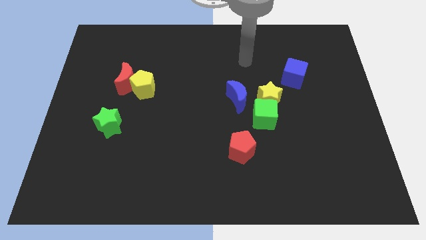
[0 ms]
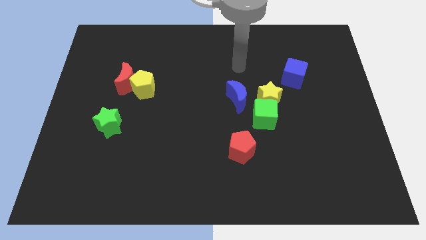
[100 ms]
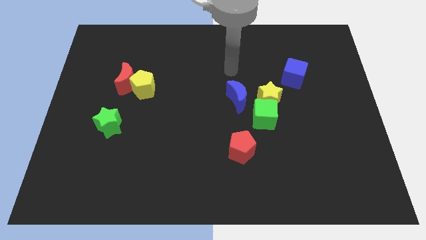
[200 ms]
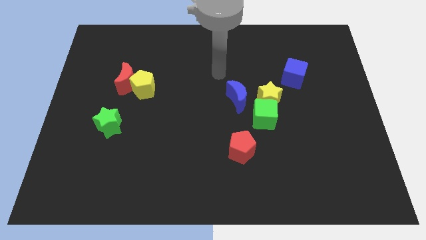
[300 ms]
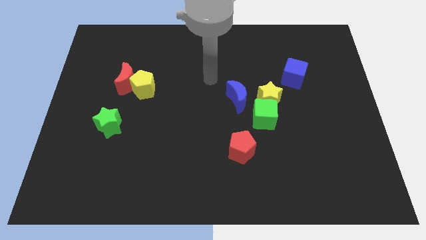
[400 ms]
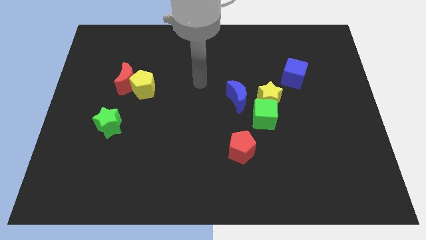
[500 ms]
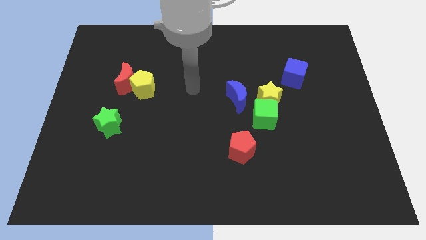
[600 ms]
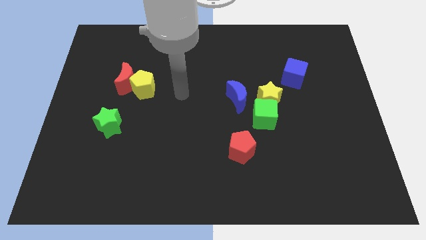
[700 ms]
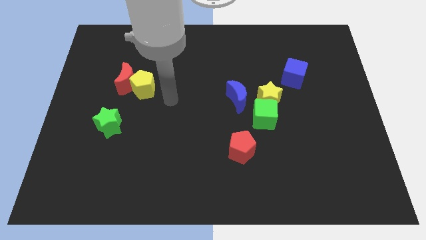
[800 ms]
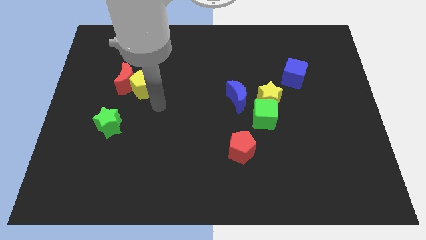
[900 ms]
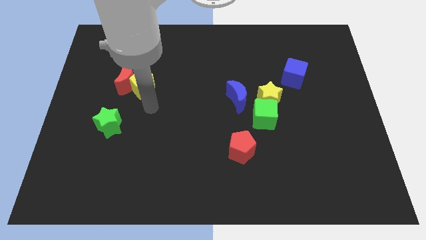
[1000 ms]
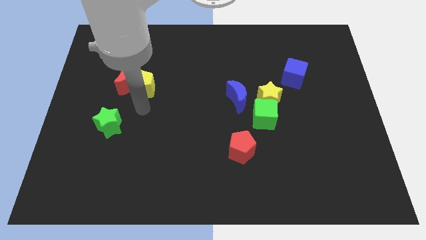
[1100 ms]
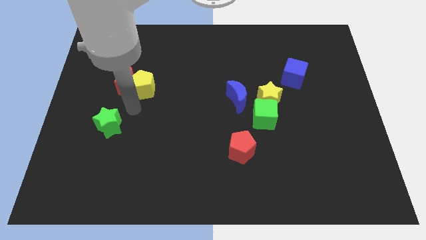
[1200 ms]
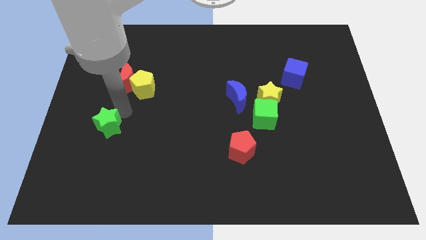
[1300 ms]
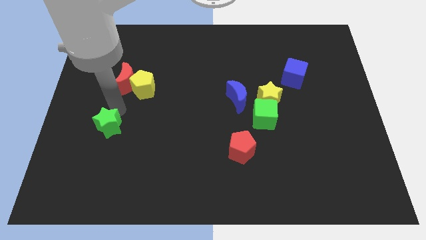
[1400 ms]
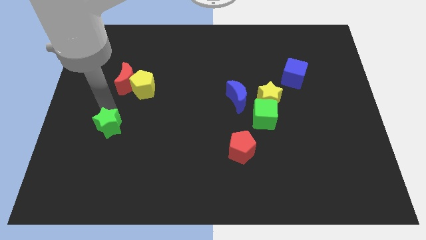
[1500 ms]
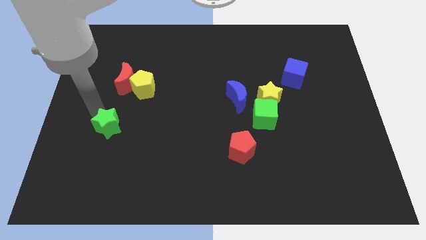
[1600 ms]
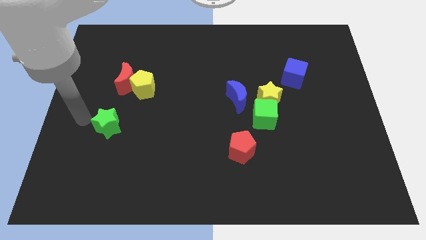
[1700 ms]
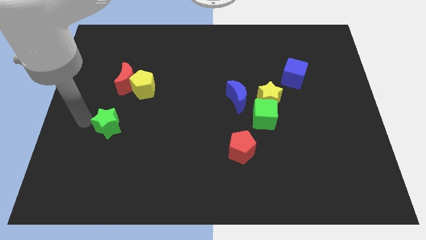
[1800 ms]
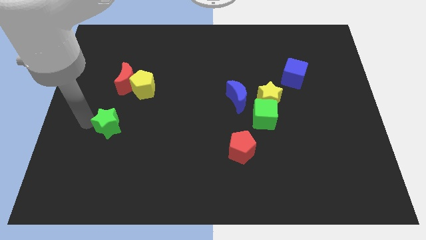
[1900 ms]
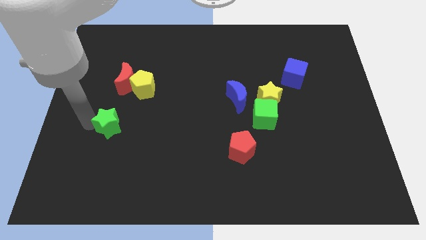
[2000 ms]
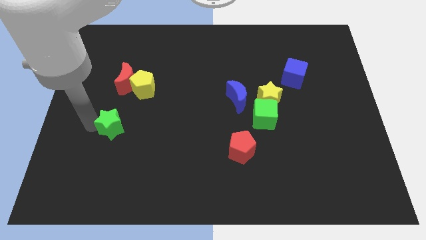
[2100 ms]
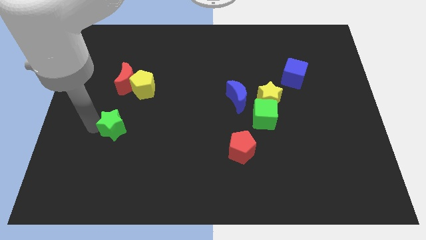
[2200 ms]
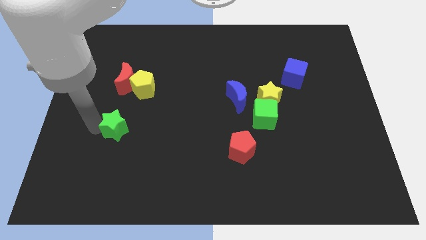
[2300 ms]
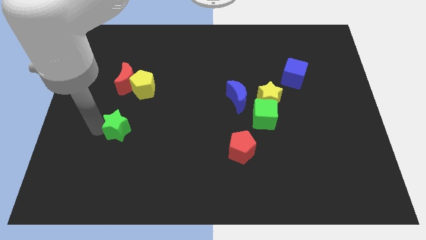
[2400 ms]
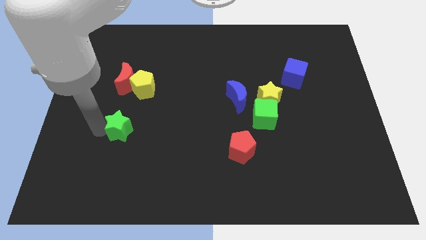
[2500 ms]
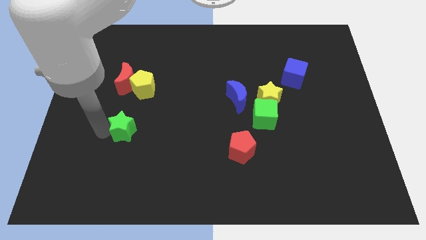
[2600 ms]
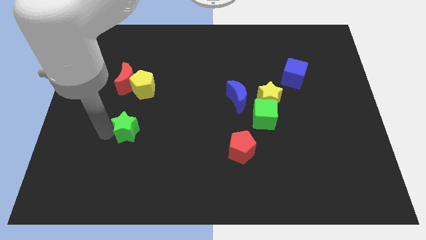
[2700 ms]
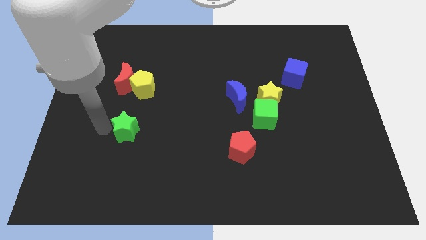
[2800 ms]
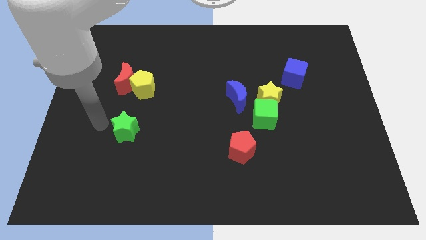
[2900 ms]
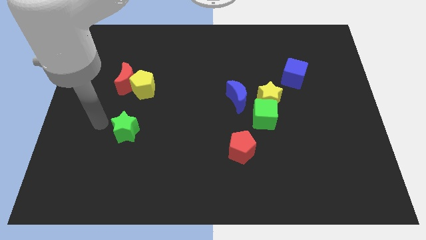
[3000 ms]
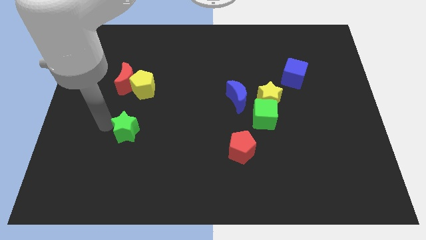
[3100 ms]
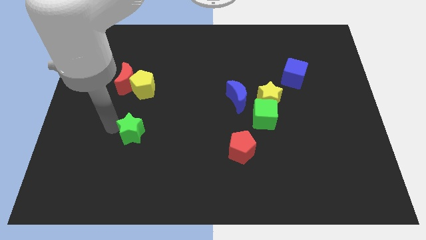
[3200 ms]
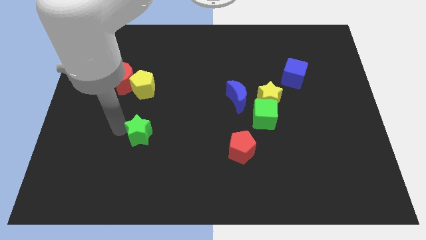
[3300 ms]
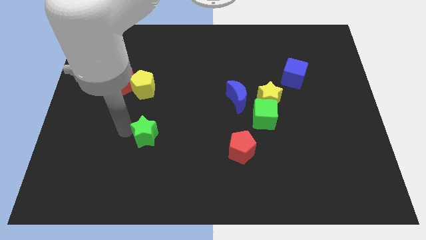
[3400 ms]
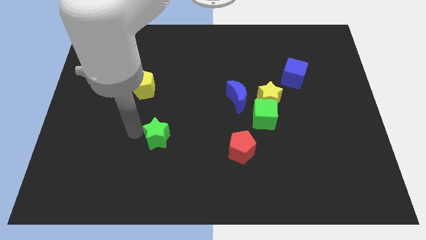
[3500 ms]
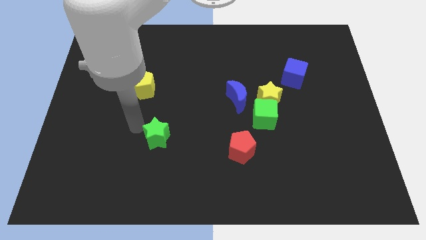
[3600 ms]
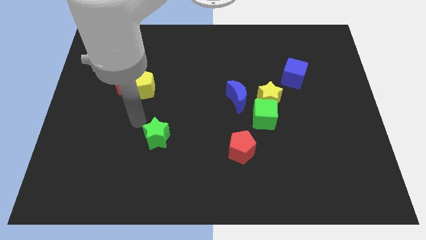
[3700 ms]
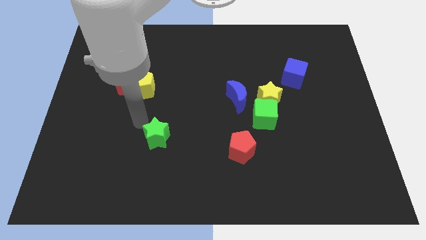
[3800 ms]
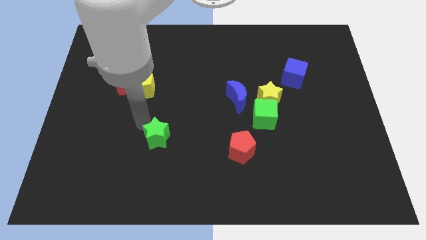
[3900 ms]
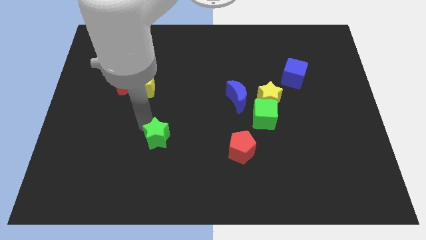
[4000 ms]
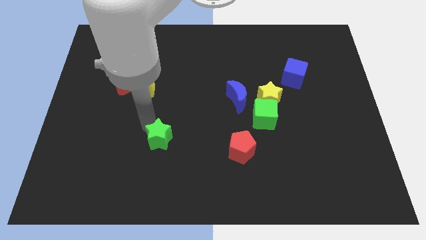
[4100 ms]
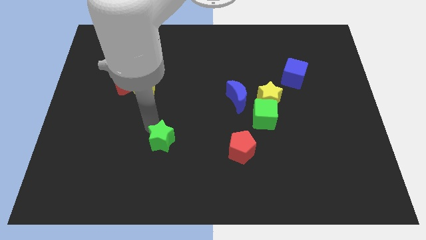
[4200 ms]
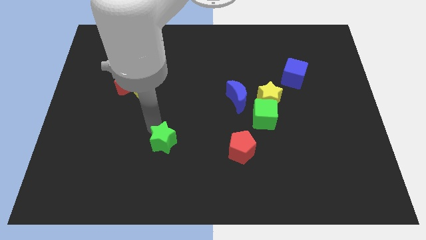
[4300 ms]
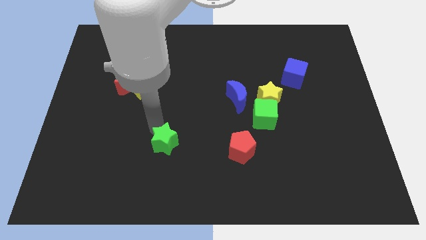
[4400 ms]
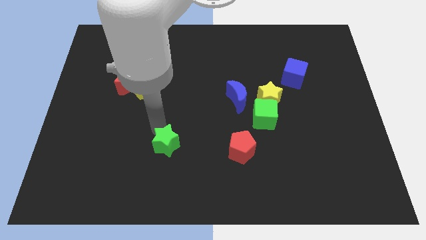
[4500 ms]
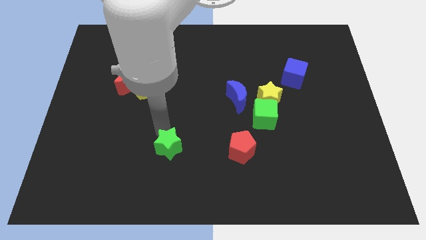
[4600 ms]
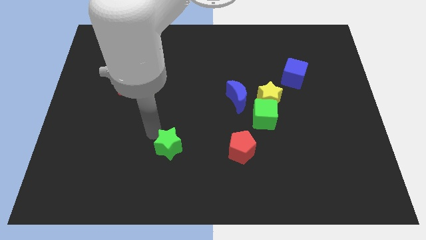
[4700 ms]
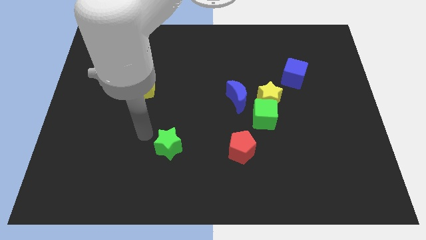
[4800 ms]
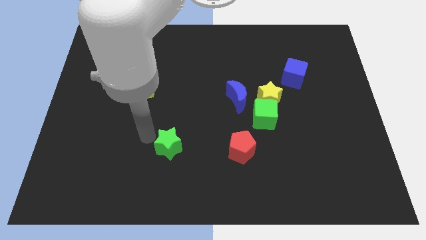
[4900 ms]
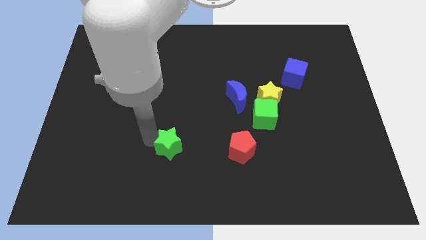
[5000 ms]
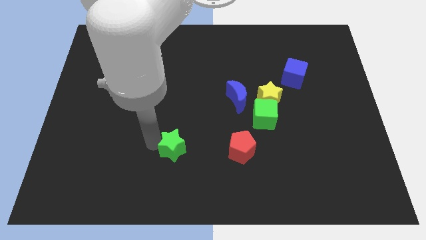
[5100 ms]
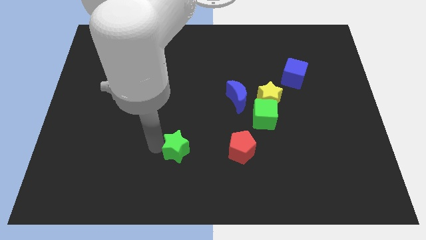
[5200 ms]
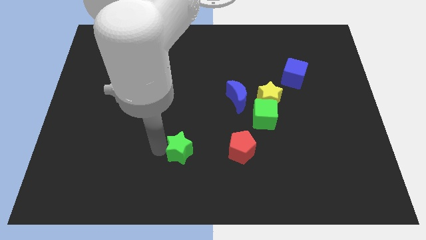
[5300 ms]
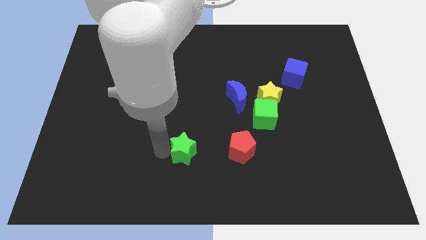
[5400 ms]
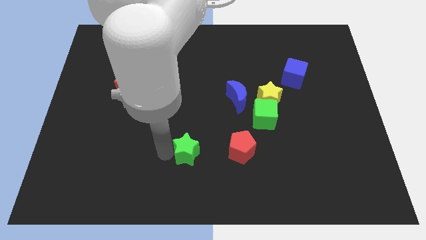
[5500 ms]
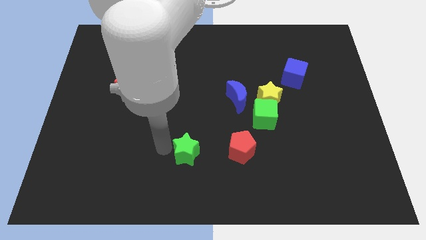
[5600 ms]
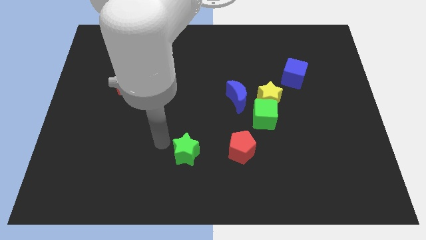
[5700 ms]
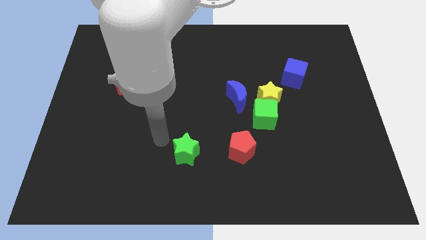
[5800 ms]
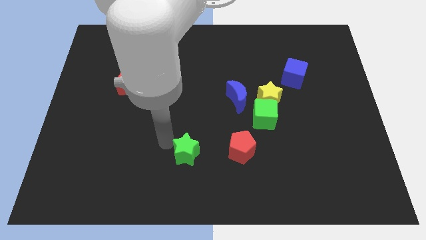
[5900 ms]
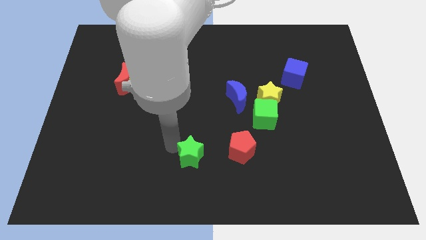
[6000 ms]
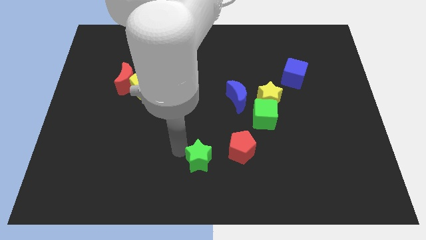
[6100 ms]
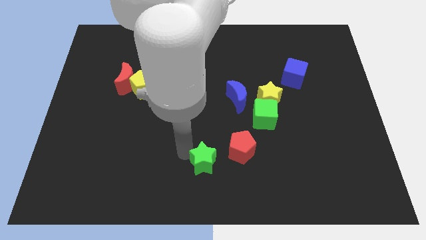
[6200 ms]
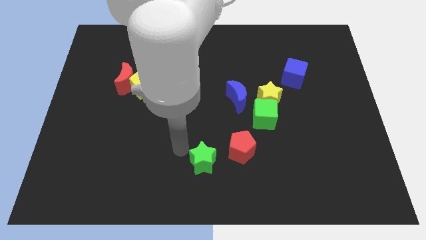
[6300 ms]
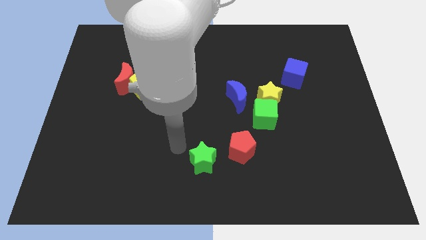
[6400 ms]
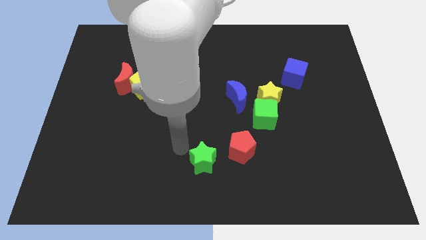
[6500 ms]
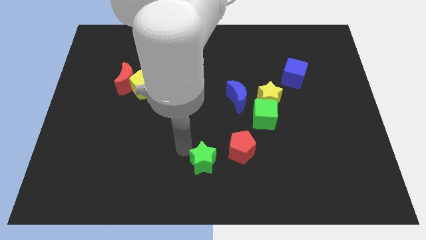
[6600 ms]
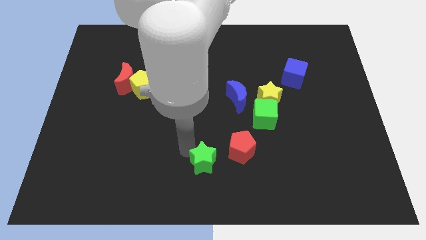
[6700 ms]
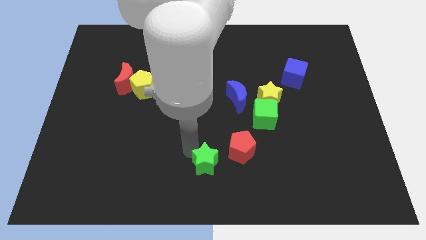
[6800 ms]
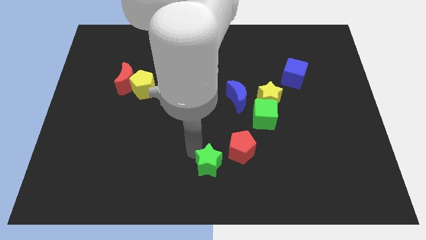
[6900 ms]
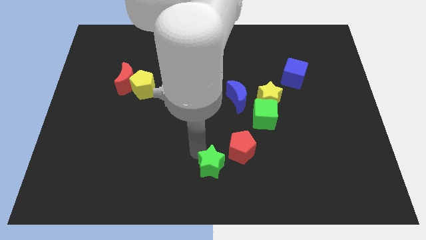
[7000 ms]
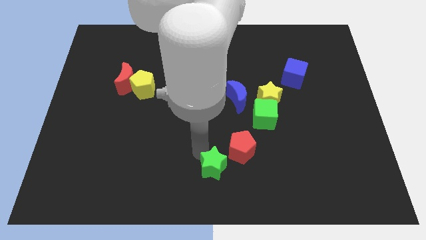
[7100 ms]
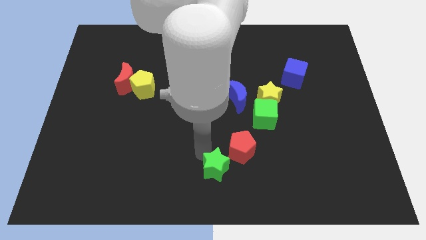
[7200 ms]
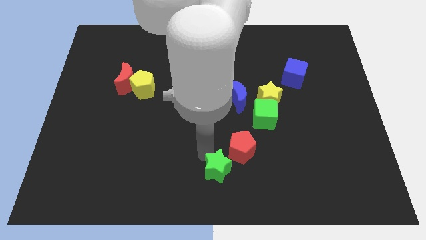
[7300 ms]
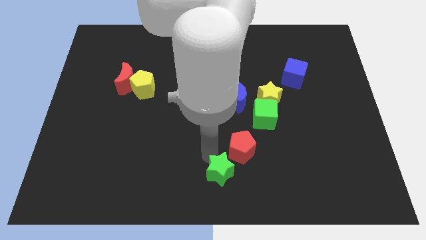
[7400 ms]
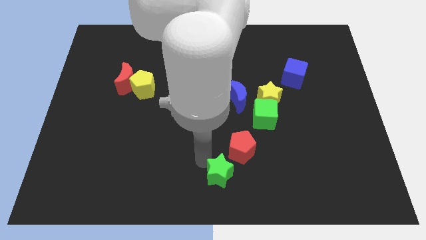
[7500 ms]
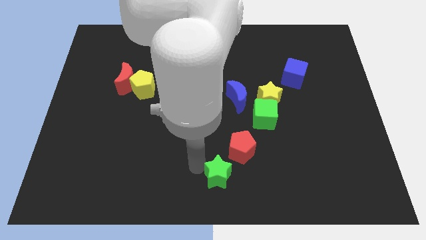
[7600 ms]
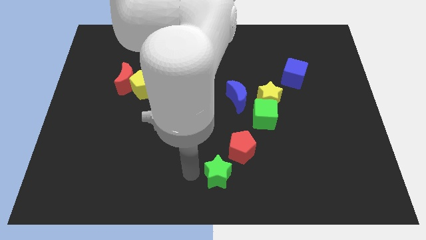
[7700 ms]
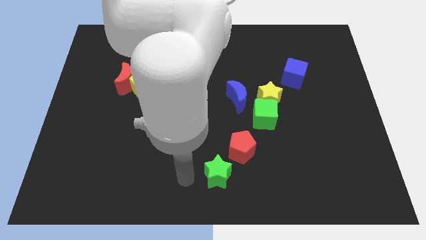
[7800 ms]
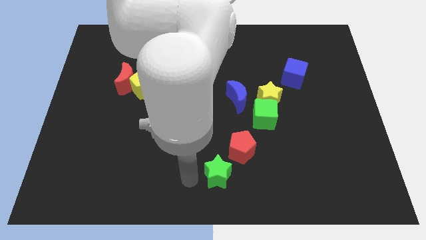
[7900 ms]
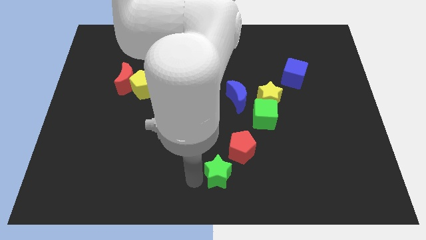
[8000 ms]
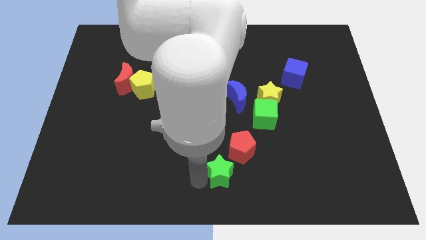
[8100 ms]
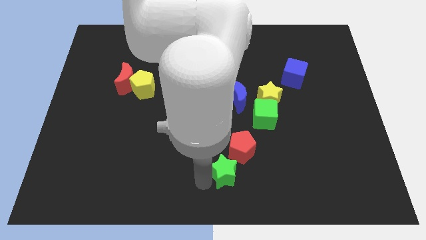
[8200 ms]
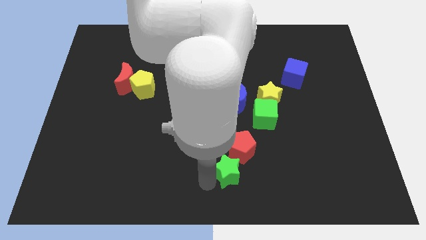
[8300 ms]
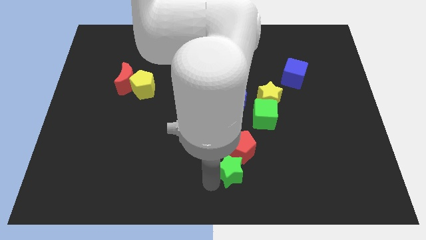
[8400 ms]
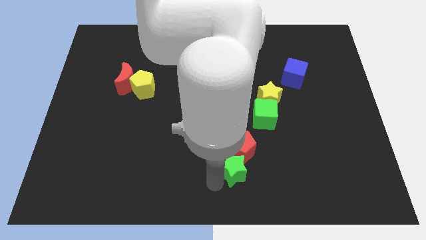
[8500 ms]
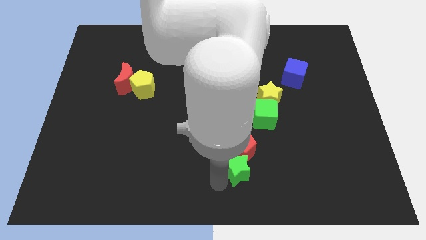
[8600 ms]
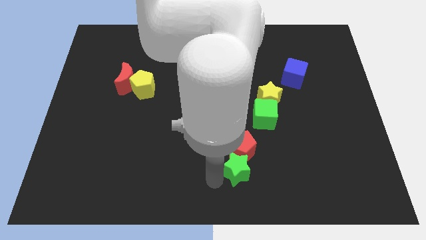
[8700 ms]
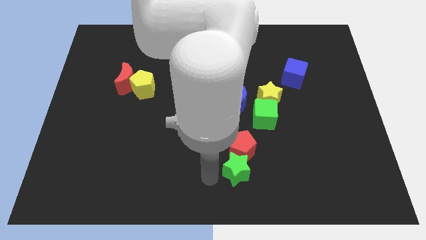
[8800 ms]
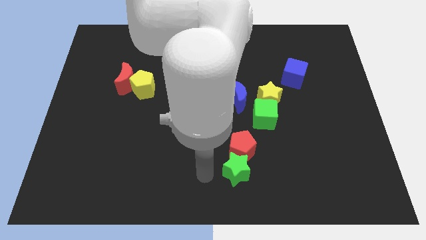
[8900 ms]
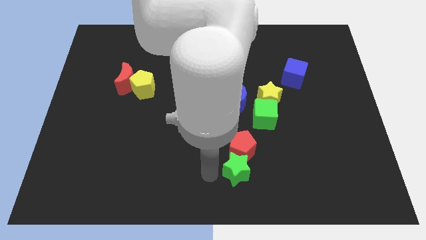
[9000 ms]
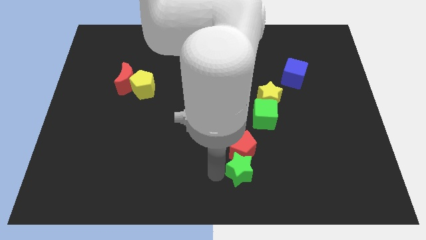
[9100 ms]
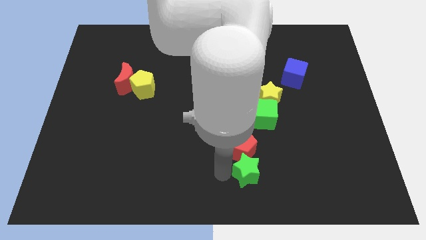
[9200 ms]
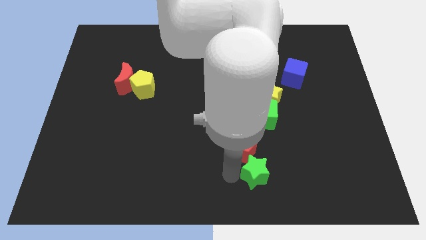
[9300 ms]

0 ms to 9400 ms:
push the green star to the bottom of the green cube
